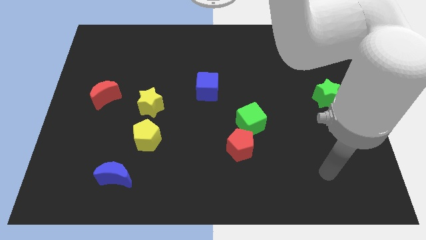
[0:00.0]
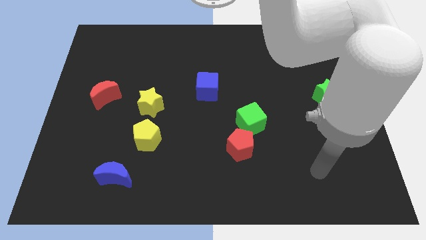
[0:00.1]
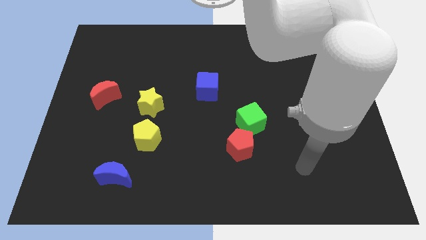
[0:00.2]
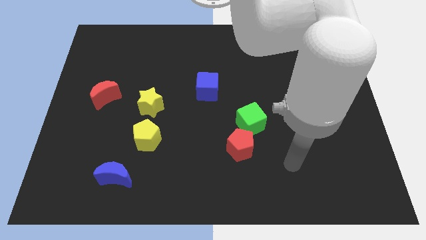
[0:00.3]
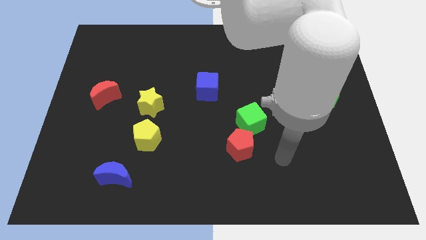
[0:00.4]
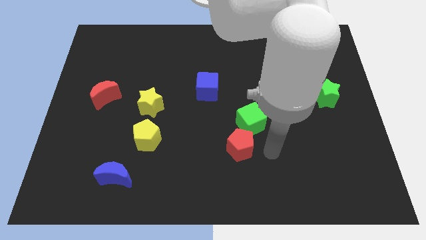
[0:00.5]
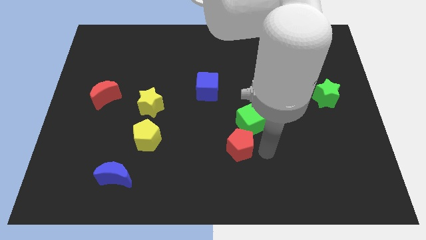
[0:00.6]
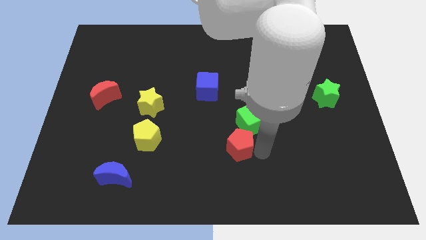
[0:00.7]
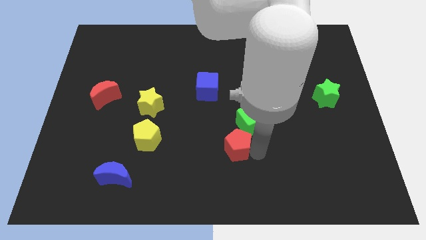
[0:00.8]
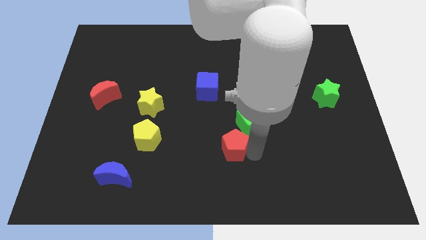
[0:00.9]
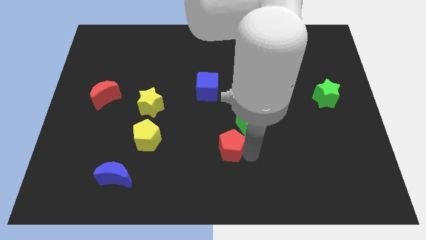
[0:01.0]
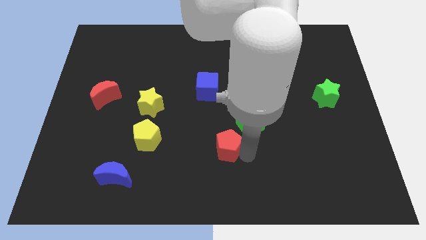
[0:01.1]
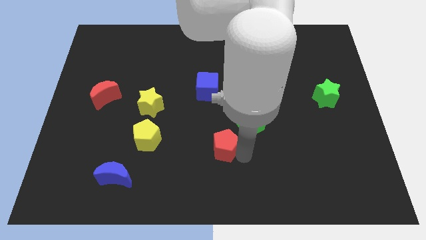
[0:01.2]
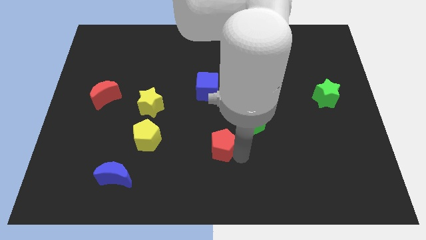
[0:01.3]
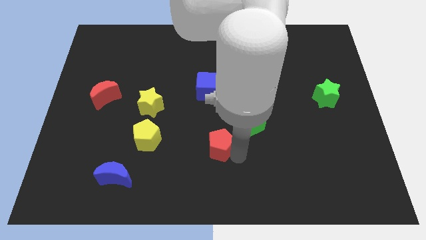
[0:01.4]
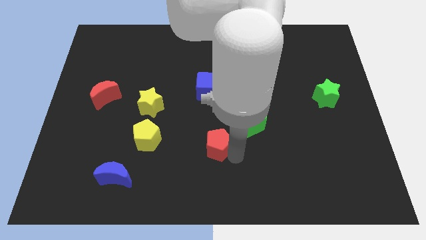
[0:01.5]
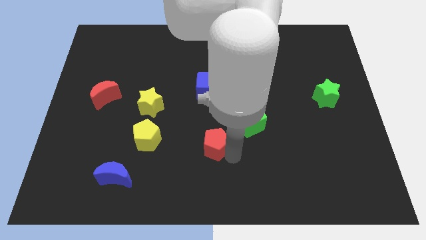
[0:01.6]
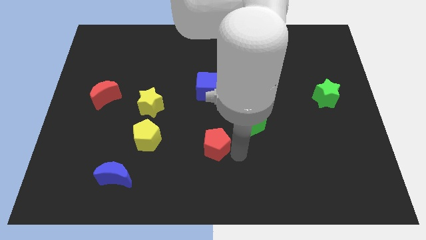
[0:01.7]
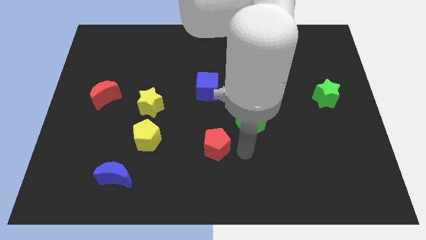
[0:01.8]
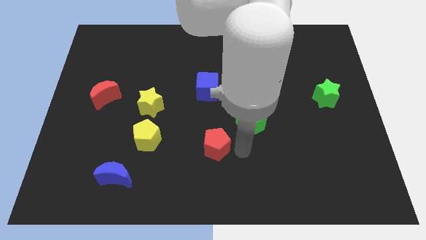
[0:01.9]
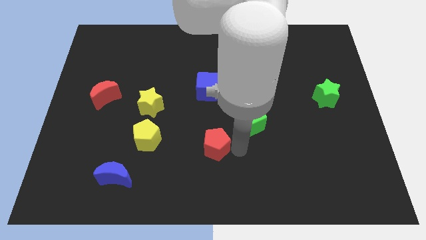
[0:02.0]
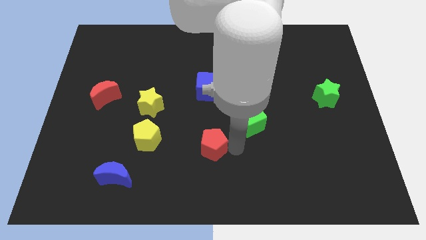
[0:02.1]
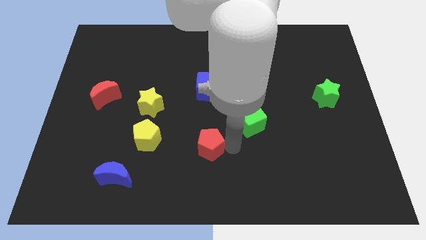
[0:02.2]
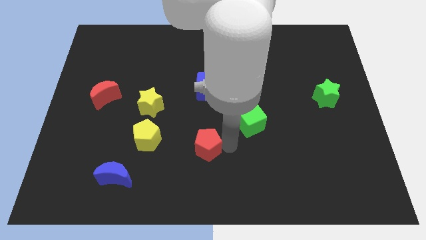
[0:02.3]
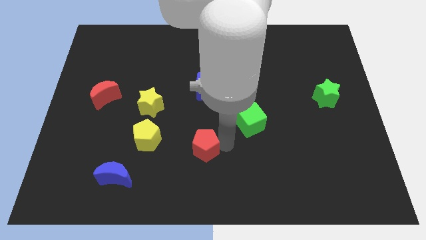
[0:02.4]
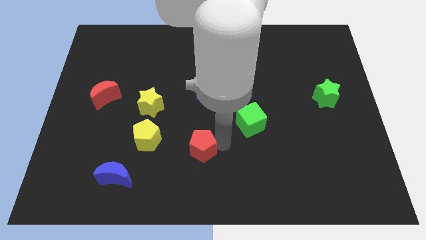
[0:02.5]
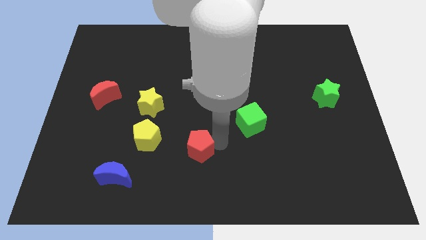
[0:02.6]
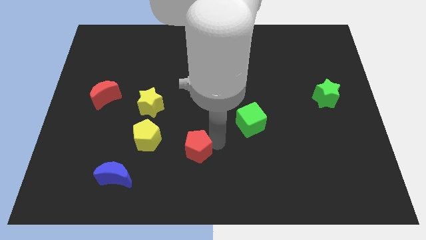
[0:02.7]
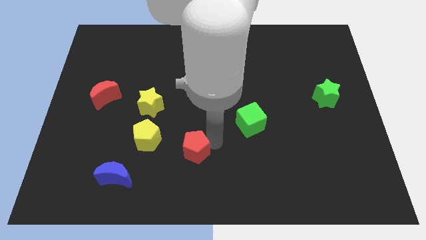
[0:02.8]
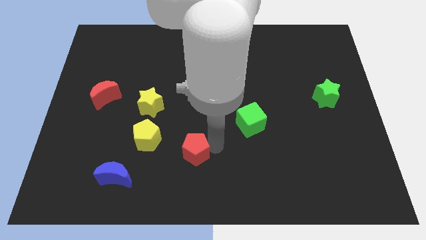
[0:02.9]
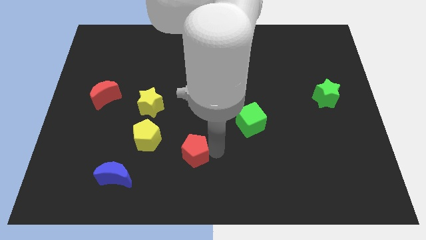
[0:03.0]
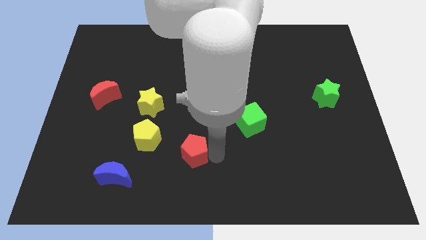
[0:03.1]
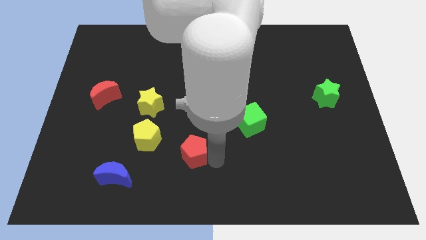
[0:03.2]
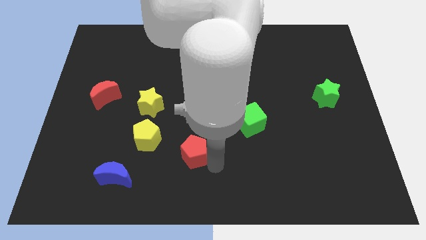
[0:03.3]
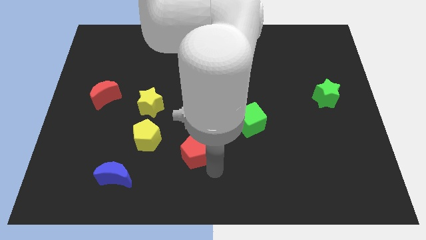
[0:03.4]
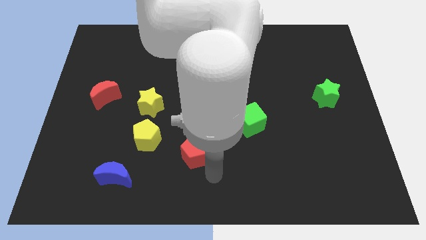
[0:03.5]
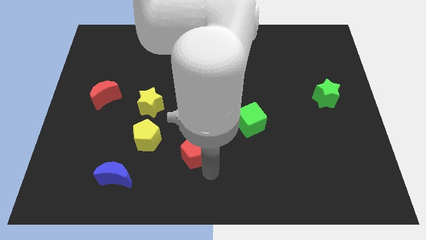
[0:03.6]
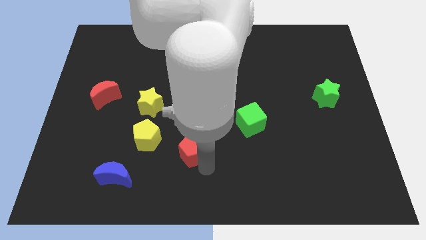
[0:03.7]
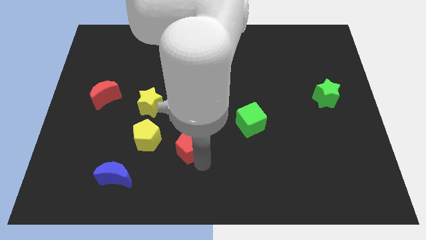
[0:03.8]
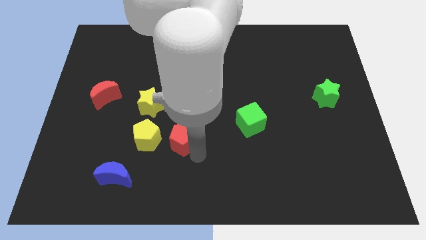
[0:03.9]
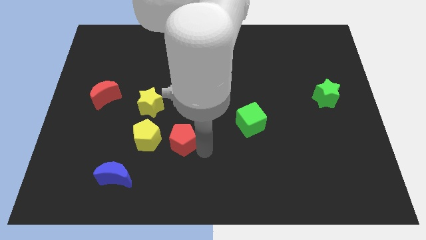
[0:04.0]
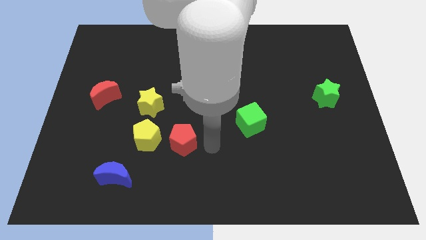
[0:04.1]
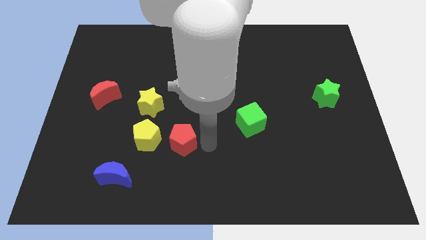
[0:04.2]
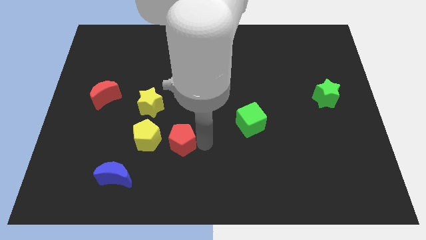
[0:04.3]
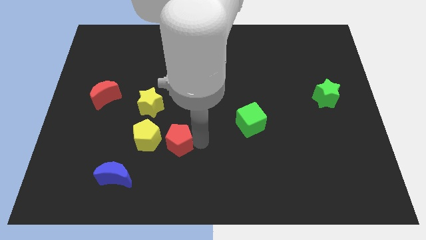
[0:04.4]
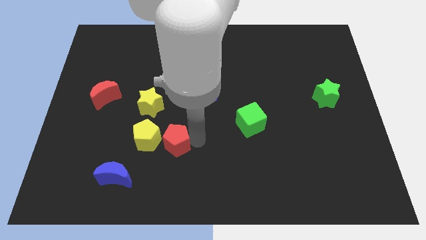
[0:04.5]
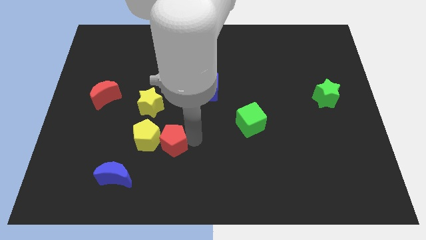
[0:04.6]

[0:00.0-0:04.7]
slide the red pentagon next to the yellow pentagon

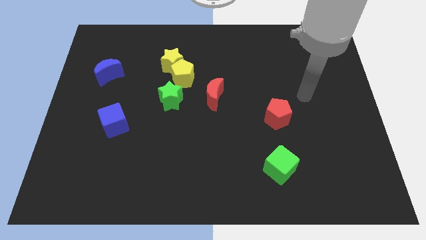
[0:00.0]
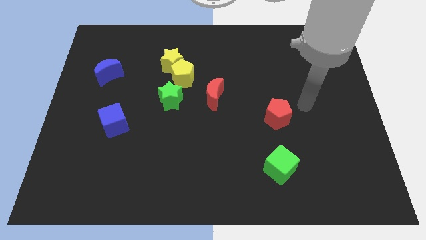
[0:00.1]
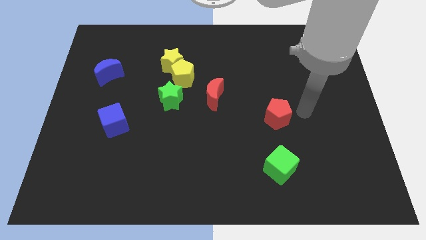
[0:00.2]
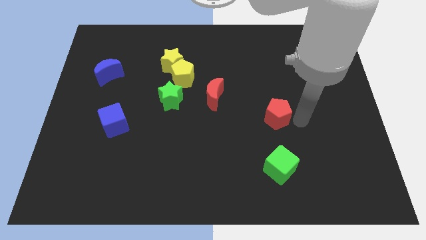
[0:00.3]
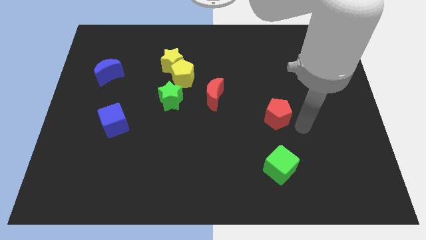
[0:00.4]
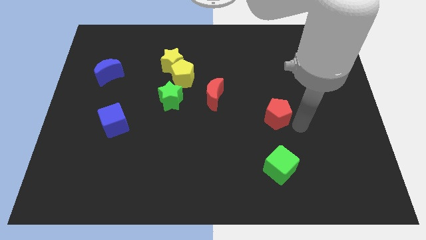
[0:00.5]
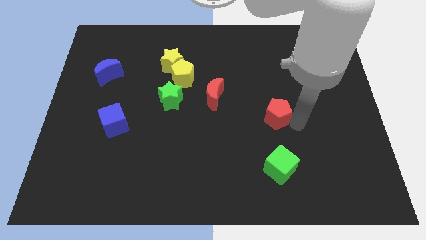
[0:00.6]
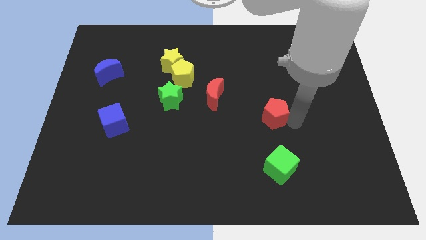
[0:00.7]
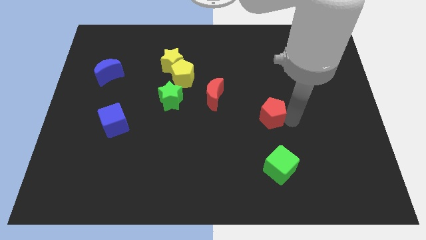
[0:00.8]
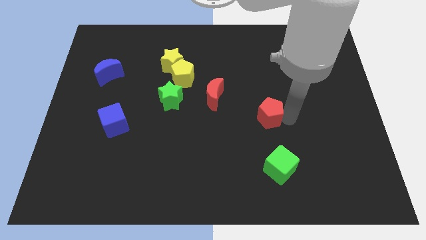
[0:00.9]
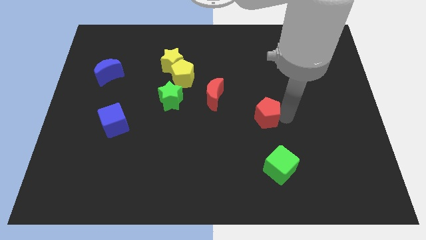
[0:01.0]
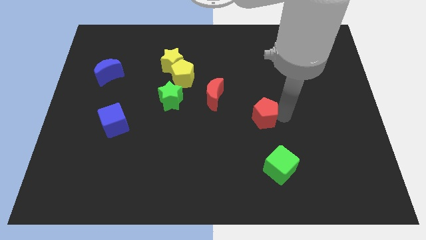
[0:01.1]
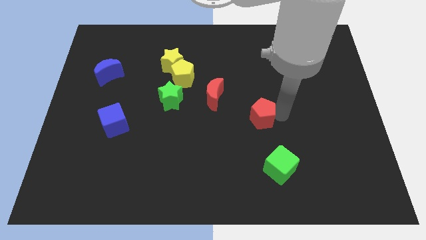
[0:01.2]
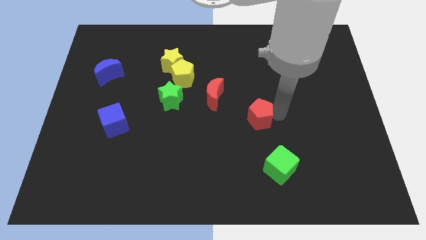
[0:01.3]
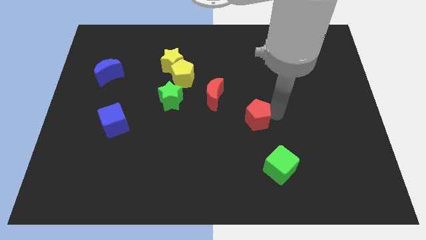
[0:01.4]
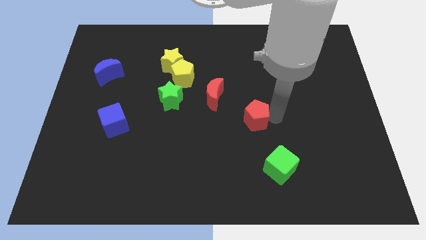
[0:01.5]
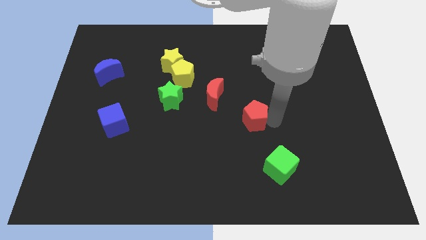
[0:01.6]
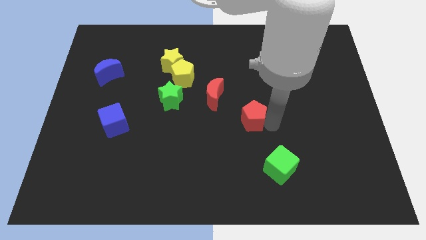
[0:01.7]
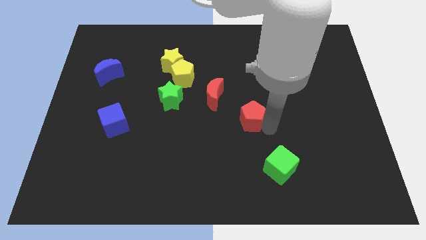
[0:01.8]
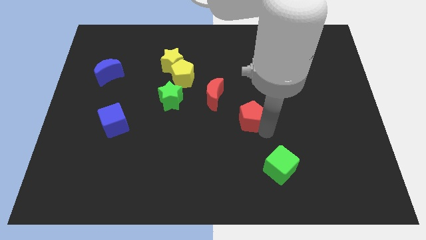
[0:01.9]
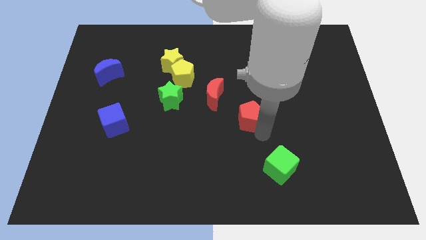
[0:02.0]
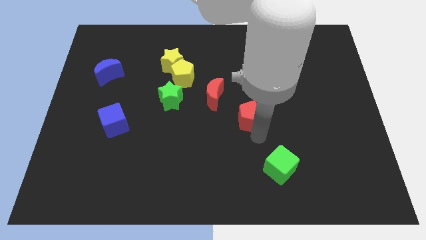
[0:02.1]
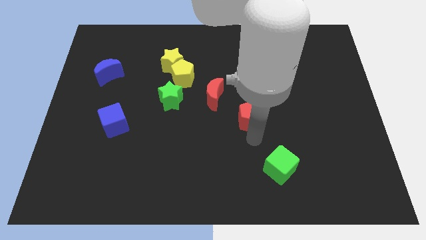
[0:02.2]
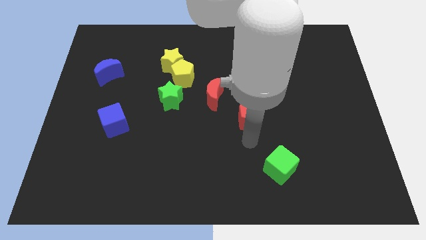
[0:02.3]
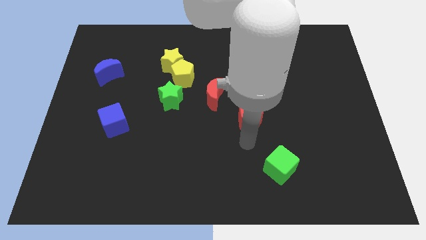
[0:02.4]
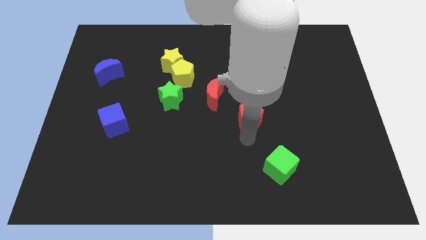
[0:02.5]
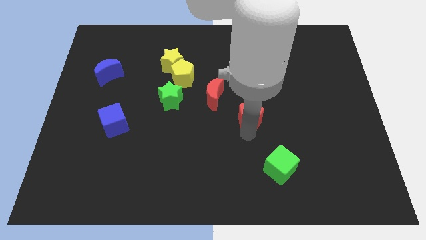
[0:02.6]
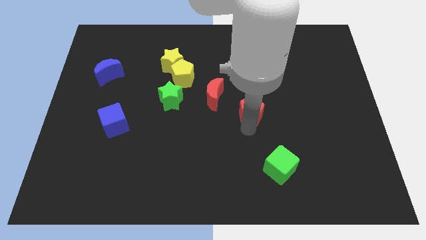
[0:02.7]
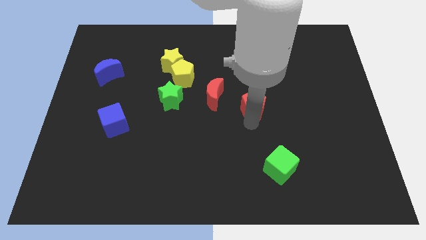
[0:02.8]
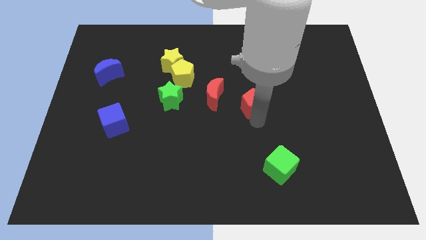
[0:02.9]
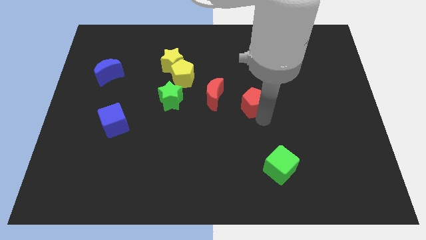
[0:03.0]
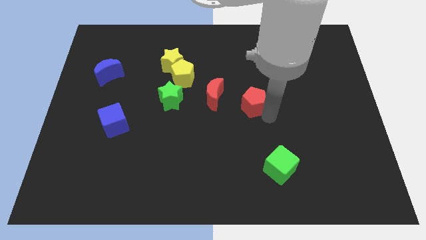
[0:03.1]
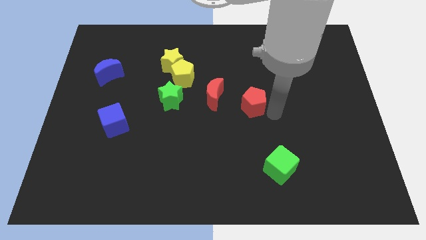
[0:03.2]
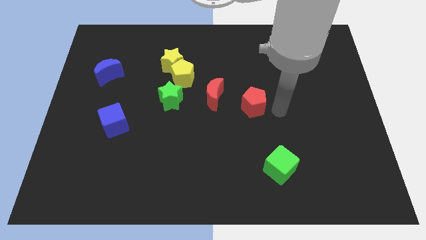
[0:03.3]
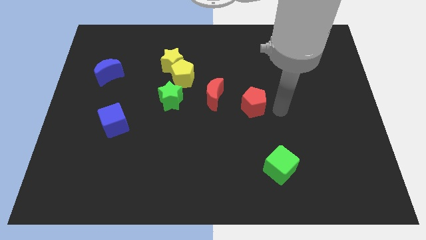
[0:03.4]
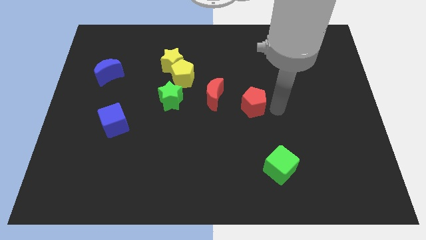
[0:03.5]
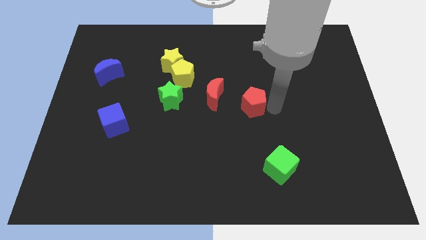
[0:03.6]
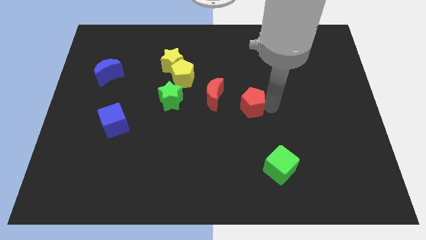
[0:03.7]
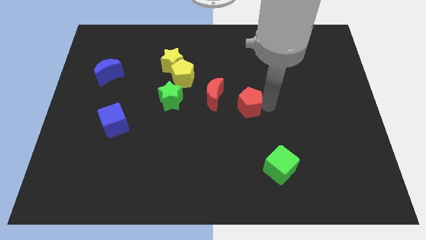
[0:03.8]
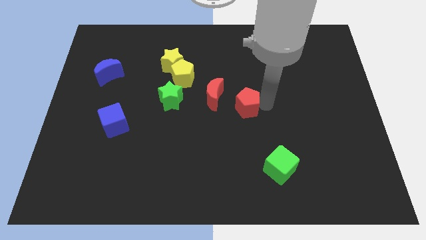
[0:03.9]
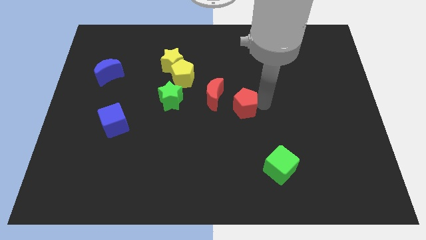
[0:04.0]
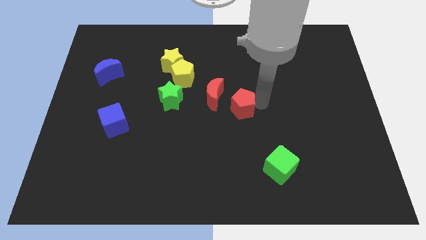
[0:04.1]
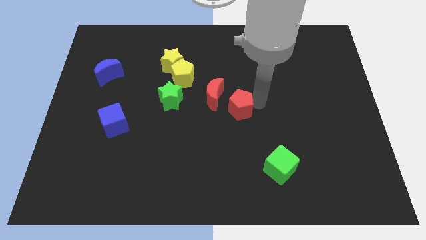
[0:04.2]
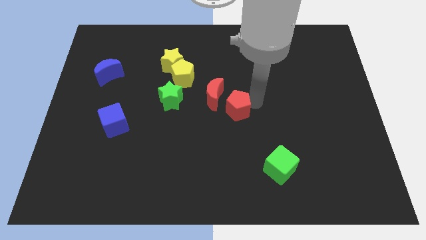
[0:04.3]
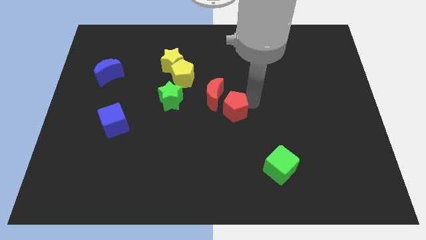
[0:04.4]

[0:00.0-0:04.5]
put the red pentagon next to the red moon
